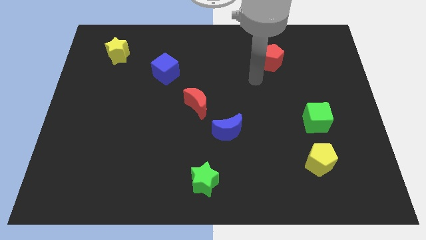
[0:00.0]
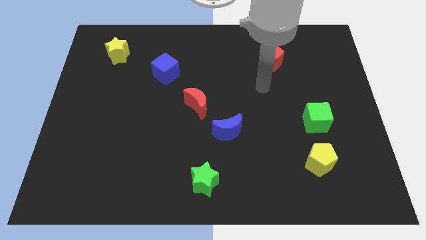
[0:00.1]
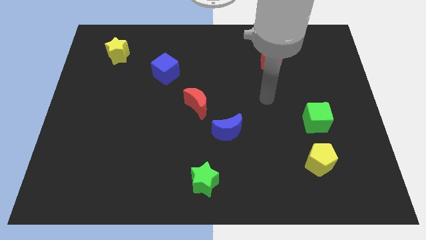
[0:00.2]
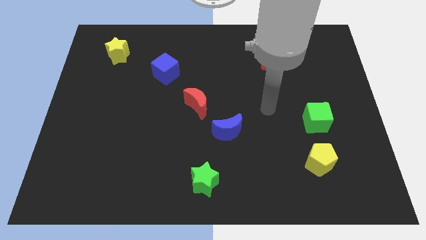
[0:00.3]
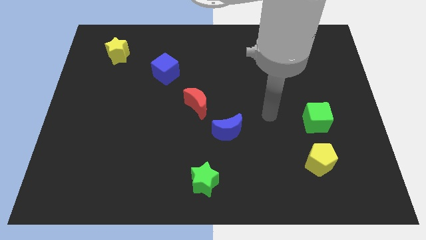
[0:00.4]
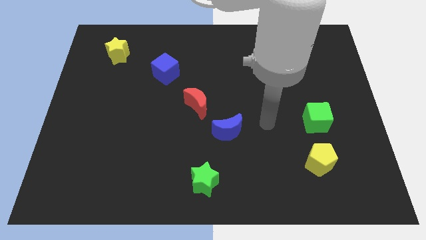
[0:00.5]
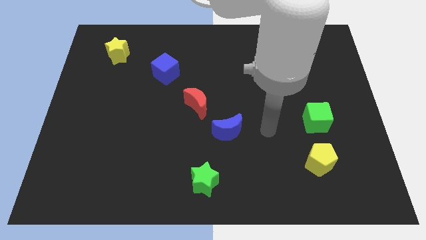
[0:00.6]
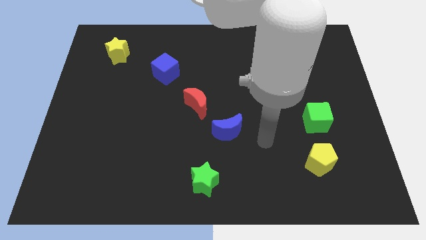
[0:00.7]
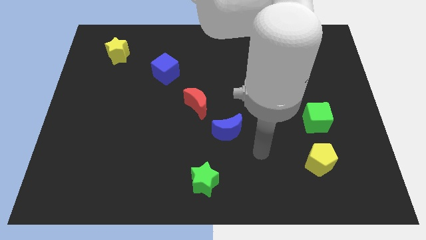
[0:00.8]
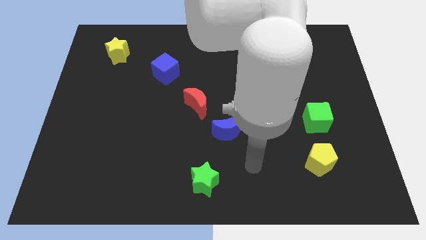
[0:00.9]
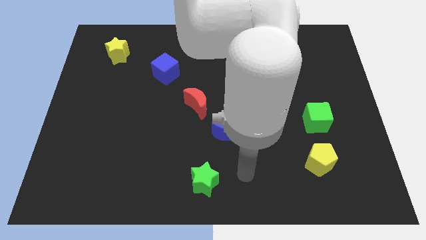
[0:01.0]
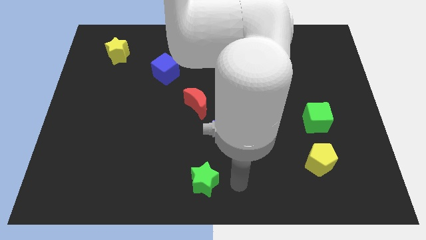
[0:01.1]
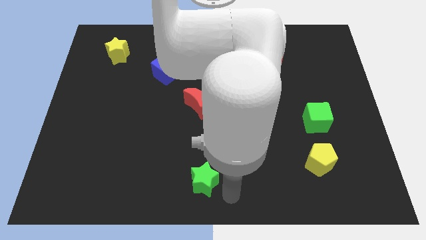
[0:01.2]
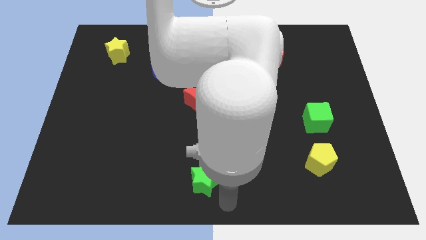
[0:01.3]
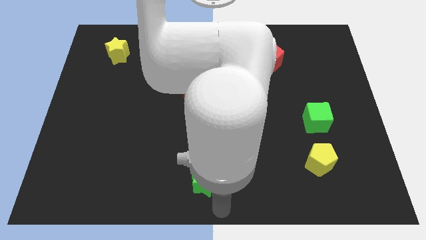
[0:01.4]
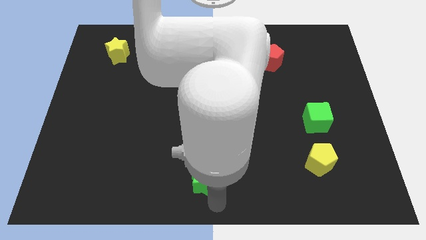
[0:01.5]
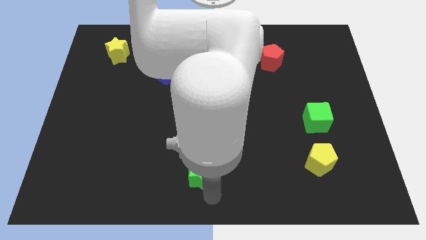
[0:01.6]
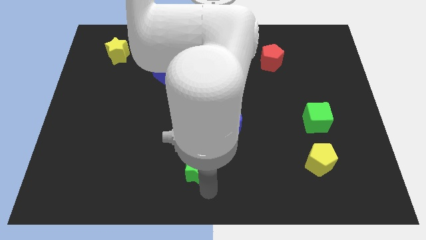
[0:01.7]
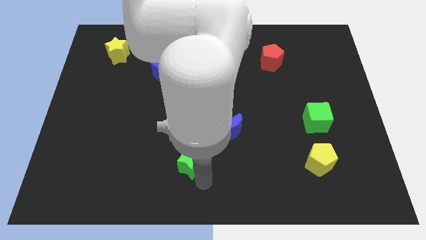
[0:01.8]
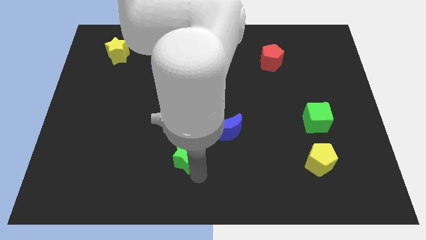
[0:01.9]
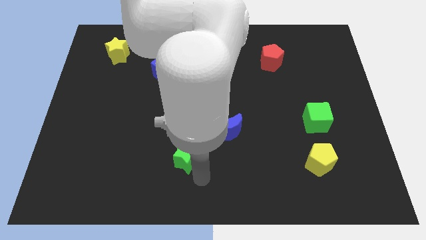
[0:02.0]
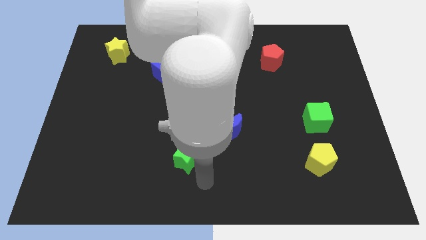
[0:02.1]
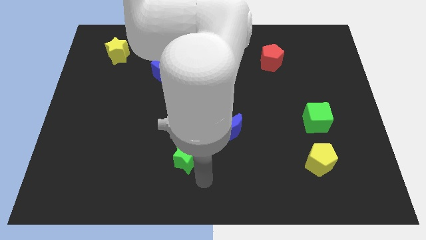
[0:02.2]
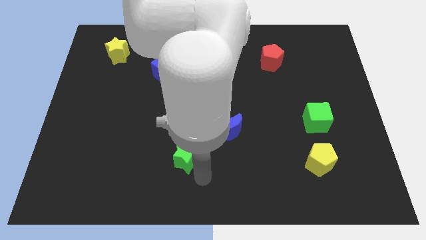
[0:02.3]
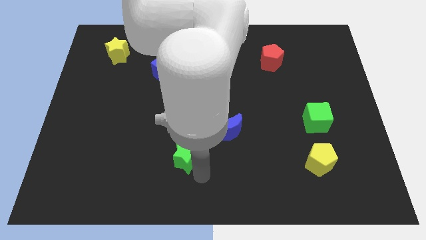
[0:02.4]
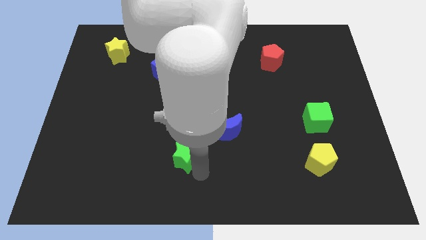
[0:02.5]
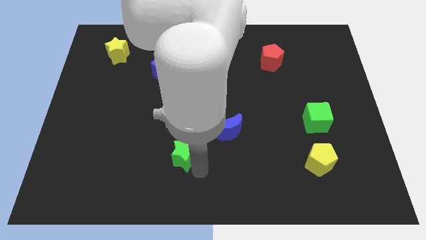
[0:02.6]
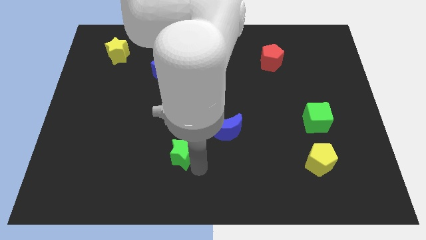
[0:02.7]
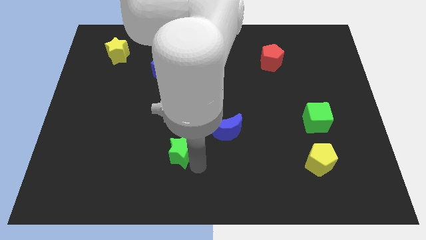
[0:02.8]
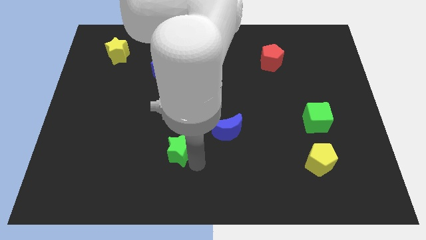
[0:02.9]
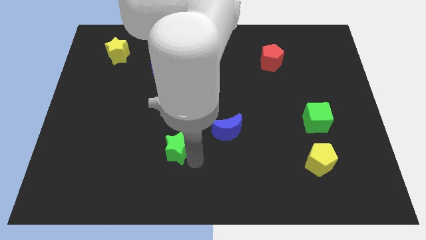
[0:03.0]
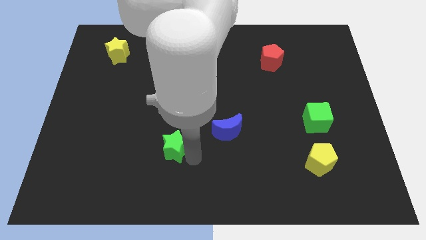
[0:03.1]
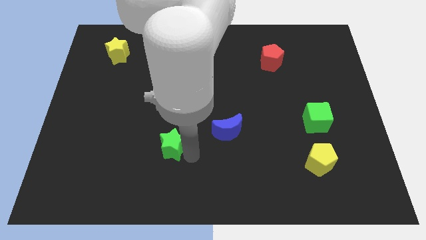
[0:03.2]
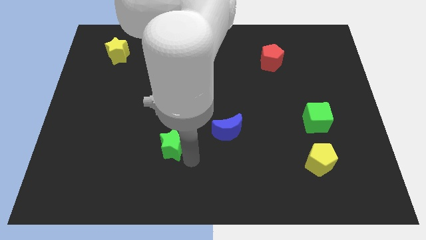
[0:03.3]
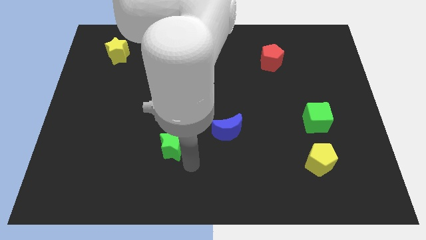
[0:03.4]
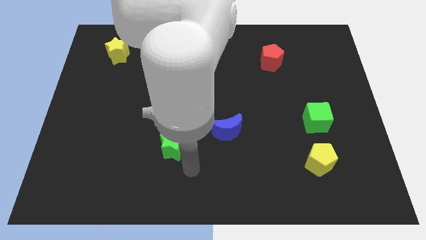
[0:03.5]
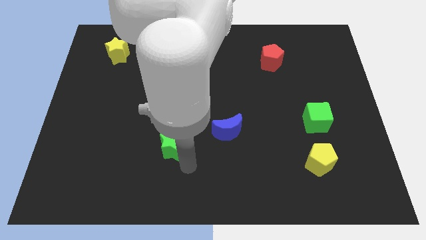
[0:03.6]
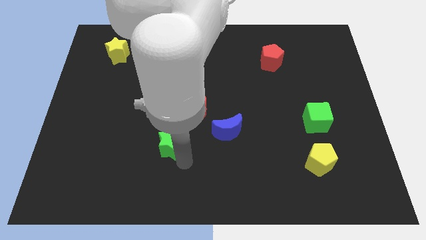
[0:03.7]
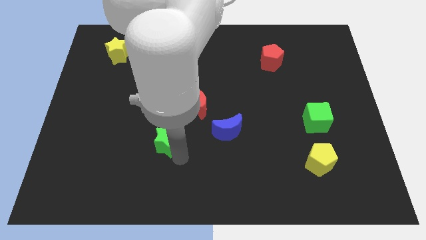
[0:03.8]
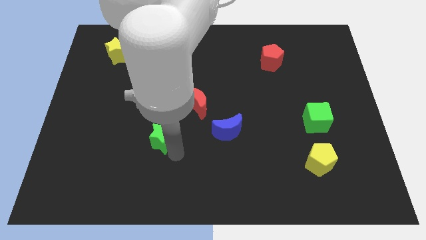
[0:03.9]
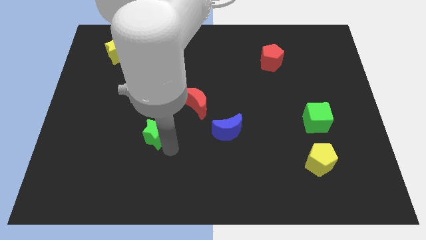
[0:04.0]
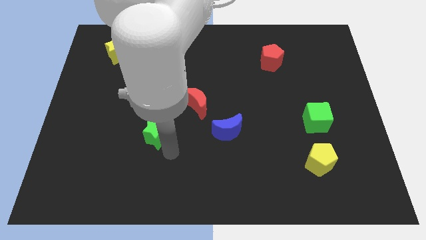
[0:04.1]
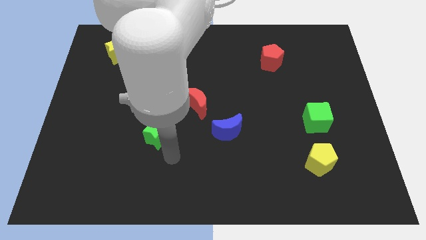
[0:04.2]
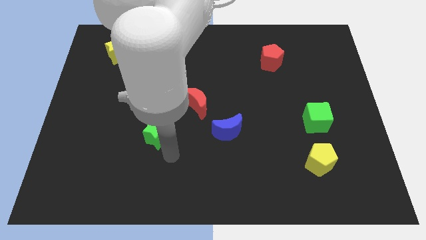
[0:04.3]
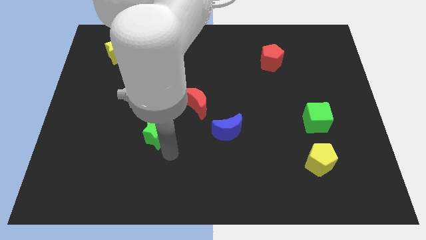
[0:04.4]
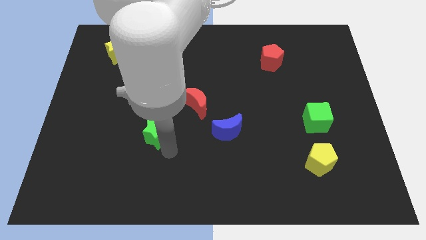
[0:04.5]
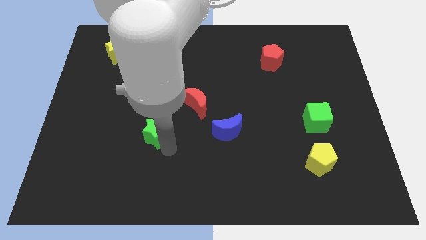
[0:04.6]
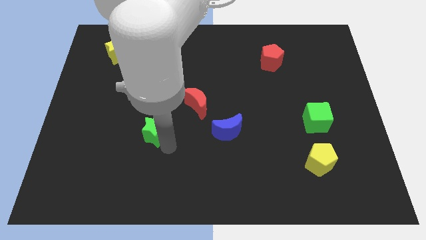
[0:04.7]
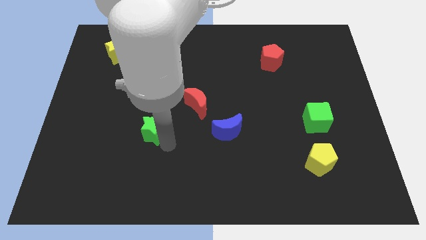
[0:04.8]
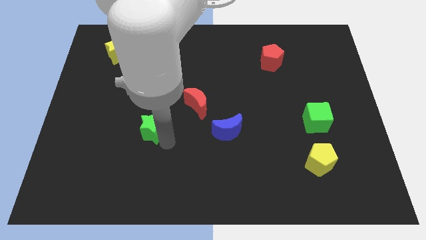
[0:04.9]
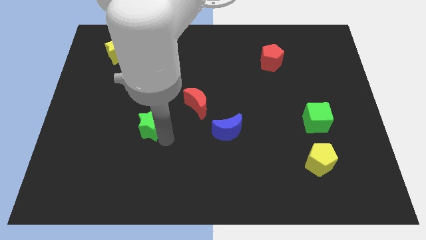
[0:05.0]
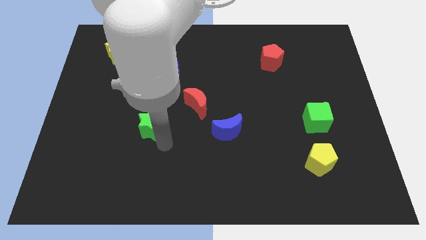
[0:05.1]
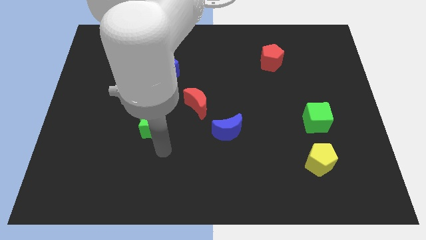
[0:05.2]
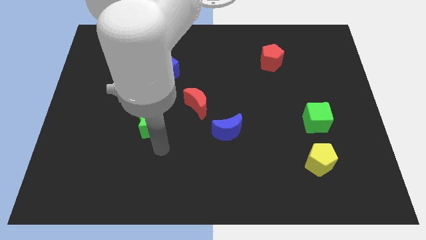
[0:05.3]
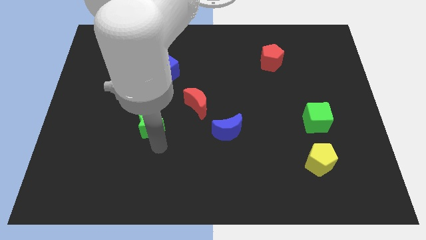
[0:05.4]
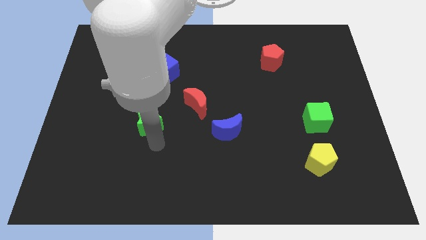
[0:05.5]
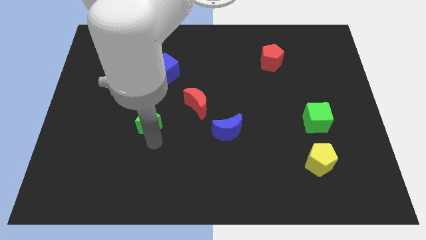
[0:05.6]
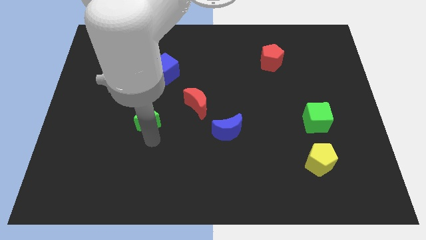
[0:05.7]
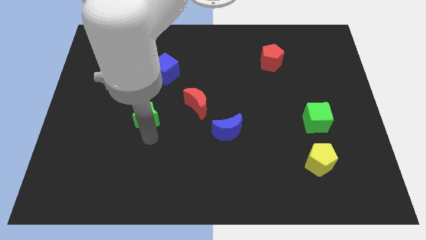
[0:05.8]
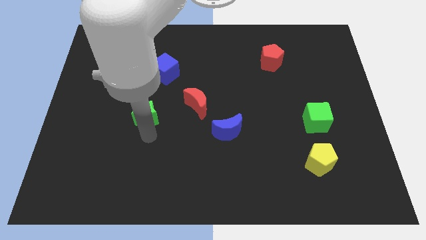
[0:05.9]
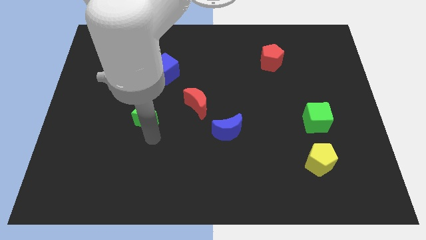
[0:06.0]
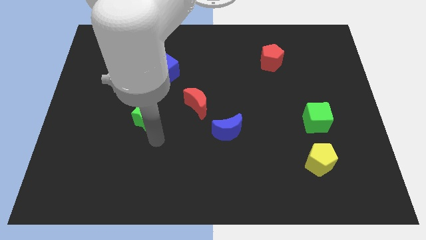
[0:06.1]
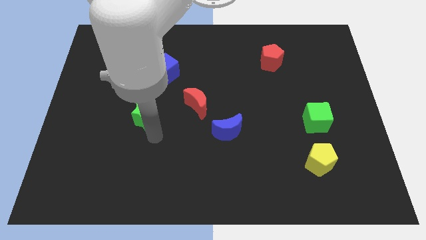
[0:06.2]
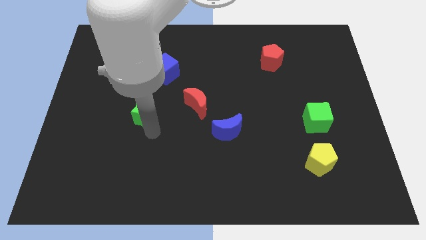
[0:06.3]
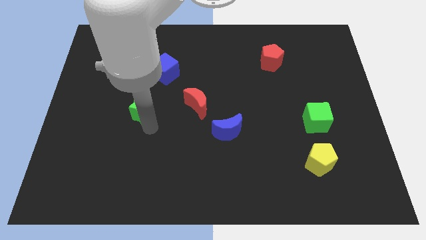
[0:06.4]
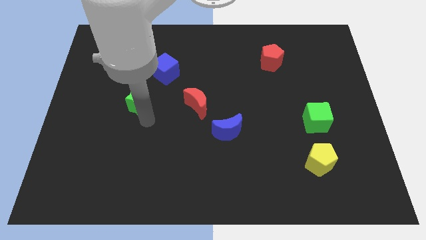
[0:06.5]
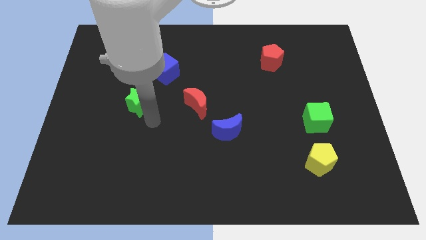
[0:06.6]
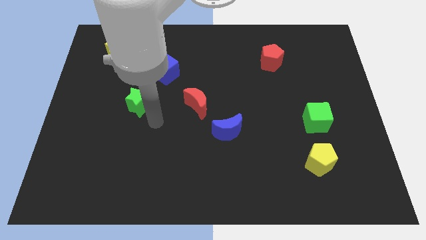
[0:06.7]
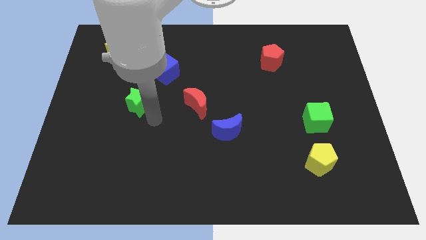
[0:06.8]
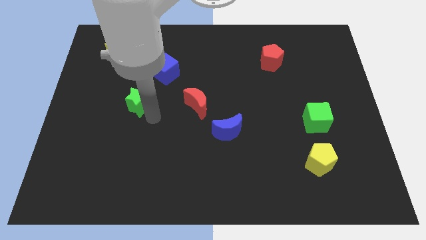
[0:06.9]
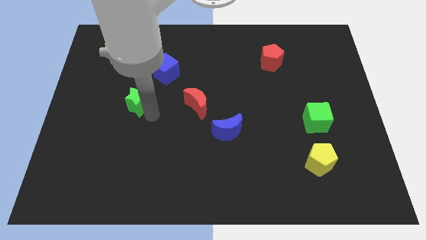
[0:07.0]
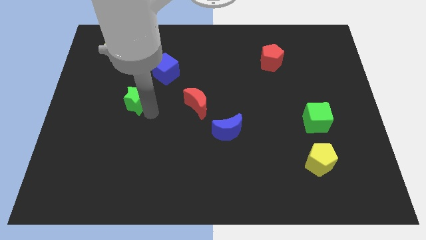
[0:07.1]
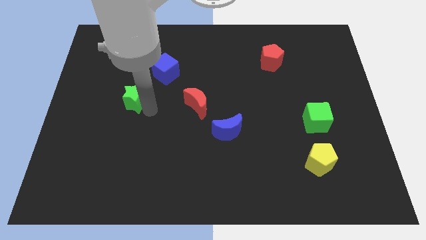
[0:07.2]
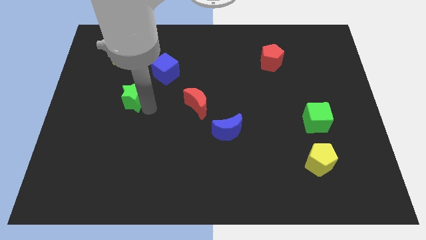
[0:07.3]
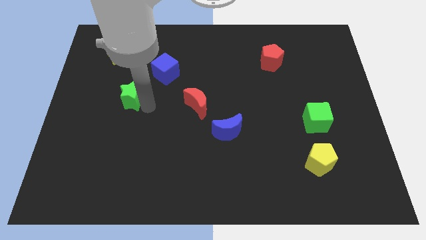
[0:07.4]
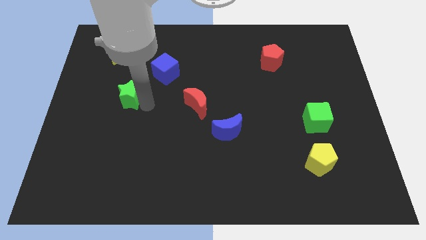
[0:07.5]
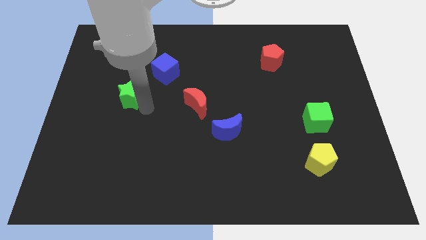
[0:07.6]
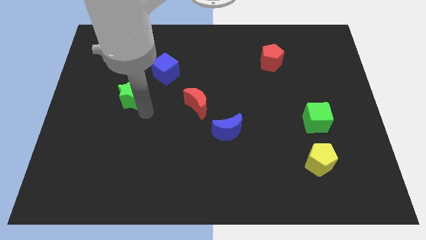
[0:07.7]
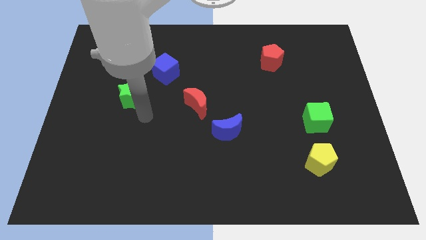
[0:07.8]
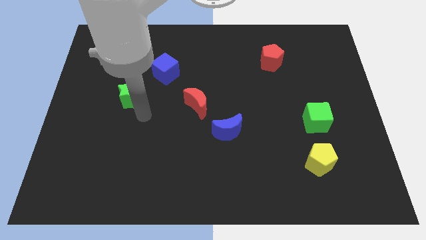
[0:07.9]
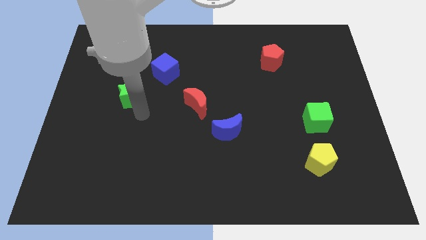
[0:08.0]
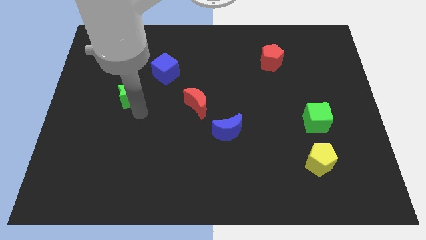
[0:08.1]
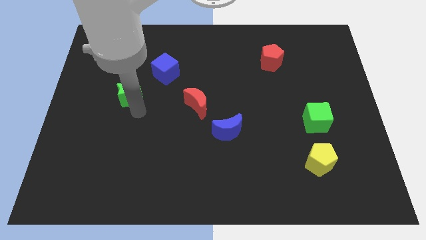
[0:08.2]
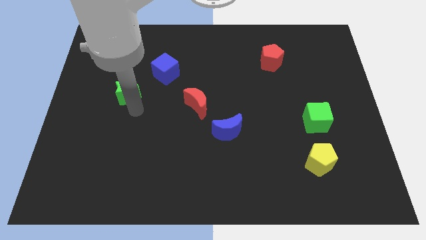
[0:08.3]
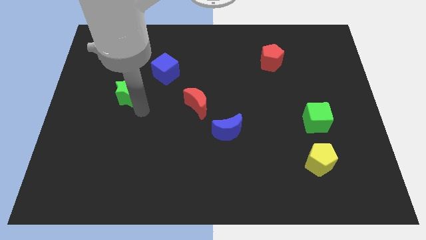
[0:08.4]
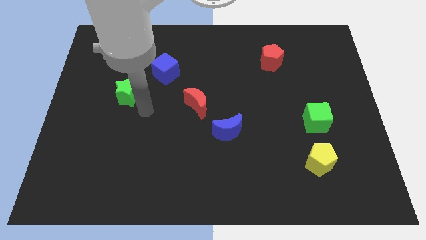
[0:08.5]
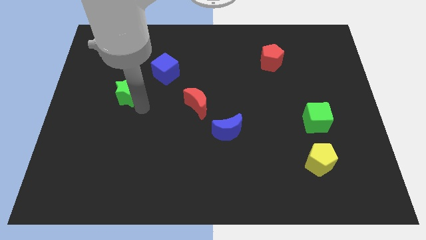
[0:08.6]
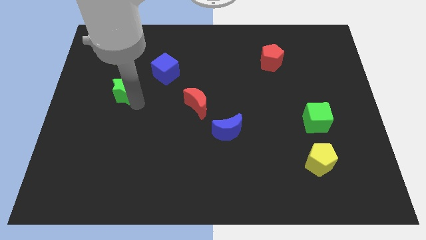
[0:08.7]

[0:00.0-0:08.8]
move the green star to the bottom side of the yellow star
